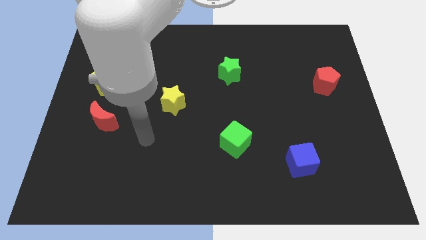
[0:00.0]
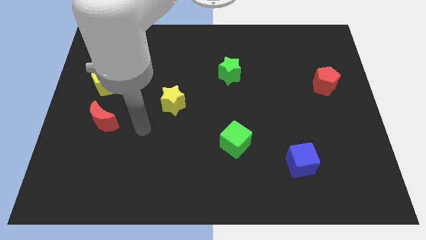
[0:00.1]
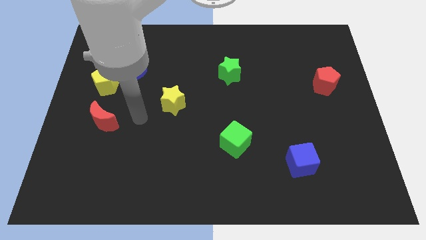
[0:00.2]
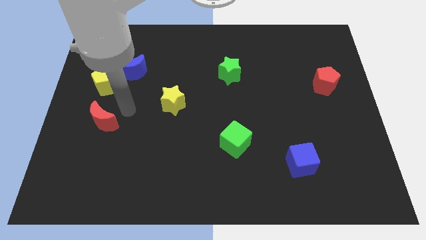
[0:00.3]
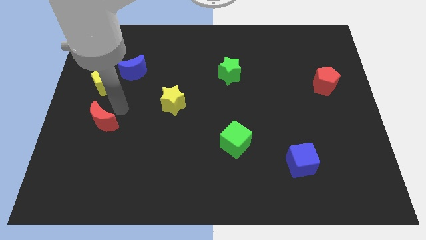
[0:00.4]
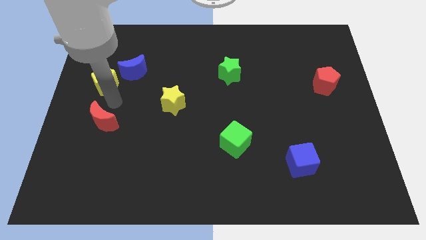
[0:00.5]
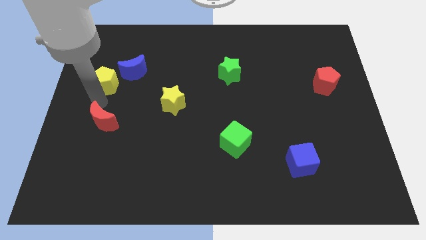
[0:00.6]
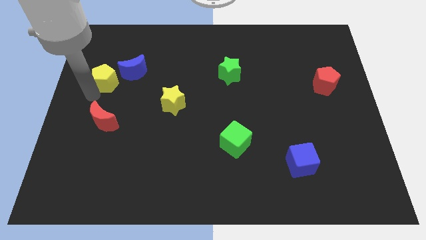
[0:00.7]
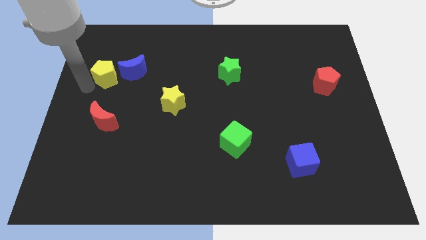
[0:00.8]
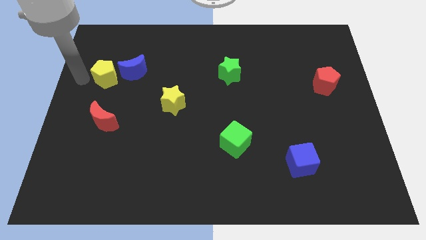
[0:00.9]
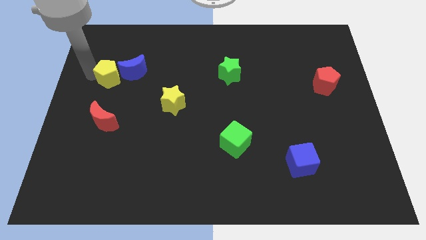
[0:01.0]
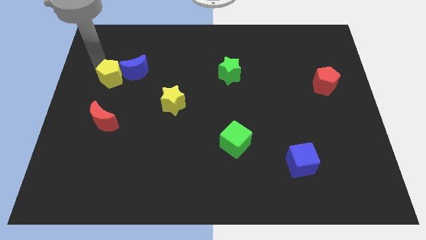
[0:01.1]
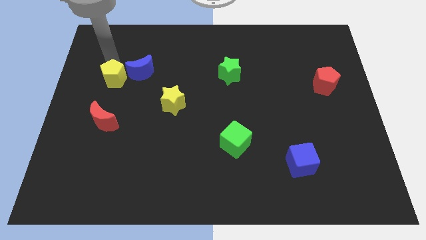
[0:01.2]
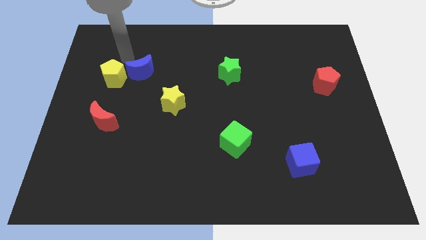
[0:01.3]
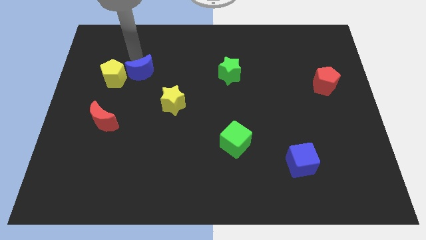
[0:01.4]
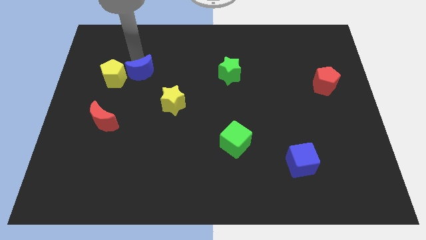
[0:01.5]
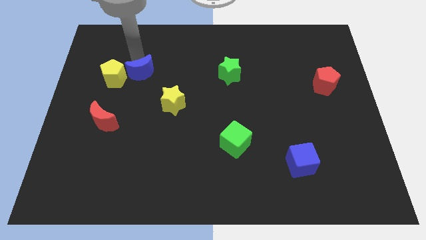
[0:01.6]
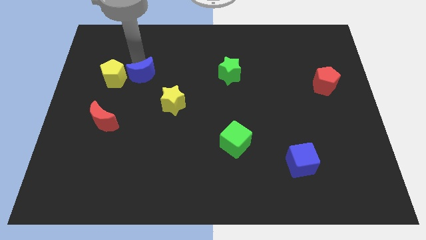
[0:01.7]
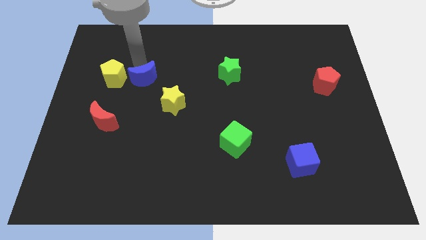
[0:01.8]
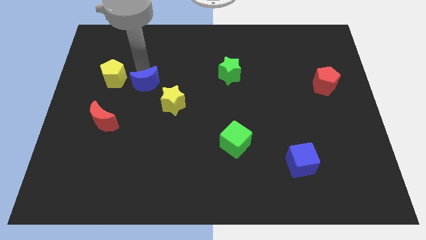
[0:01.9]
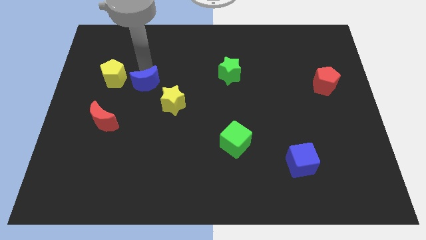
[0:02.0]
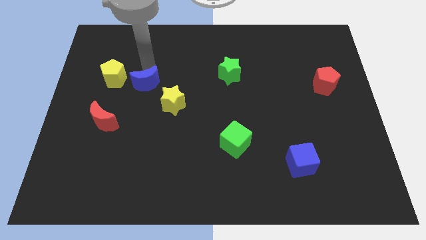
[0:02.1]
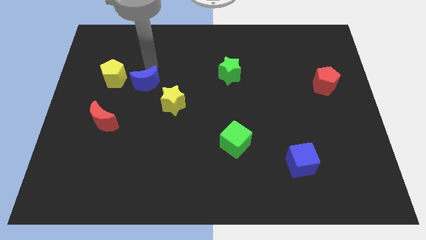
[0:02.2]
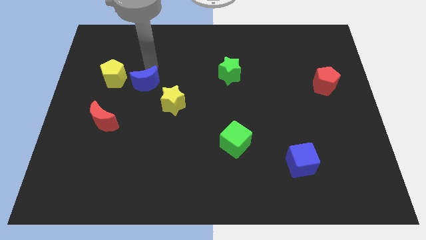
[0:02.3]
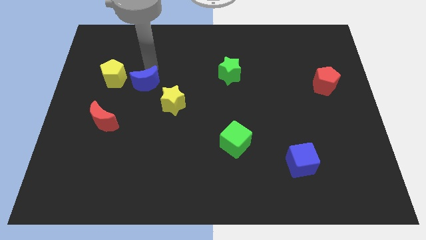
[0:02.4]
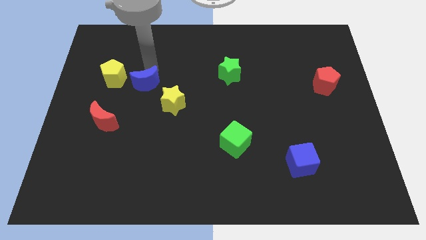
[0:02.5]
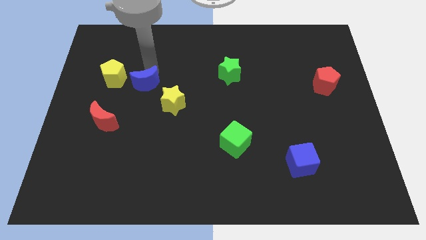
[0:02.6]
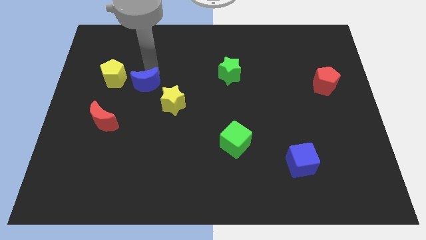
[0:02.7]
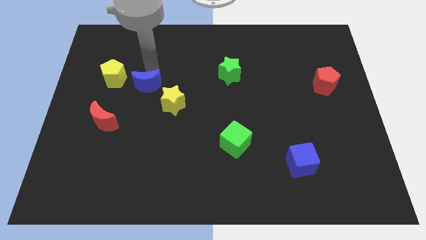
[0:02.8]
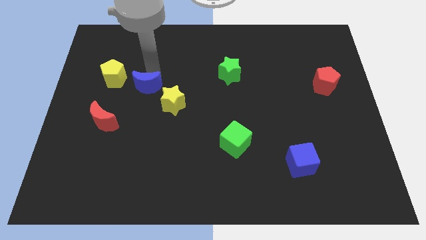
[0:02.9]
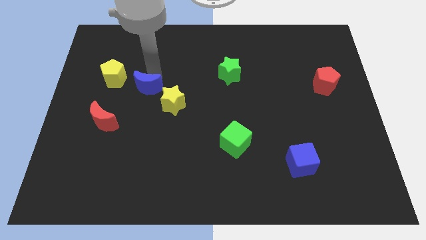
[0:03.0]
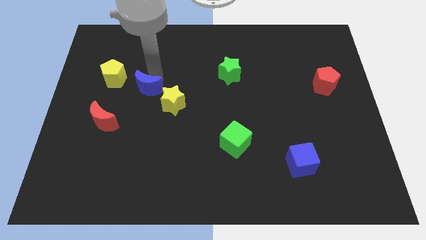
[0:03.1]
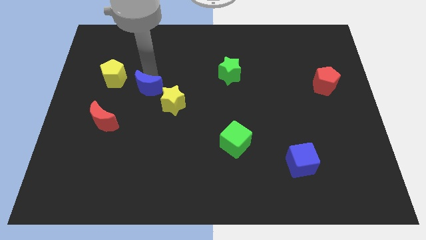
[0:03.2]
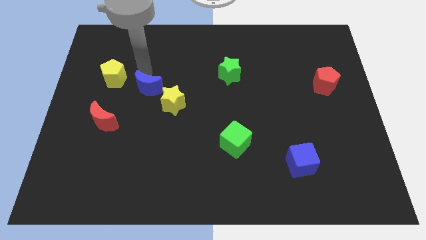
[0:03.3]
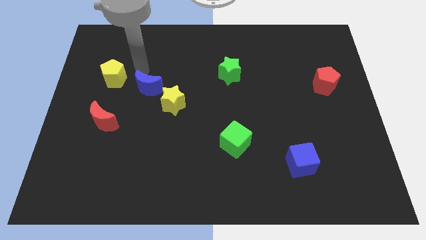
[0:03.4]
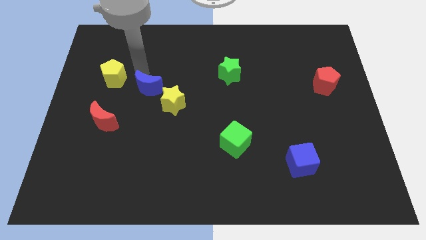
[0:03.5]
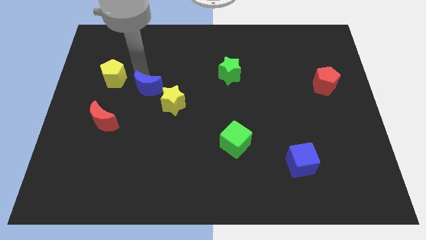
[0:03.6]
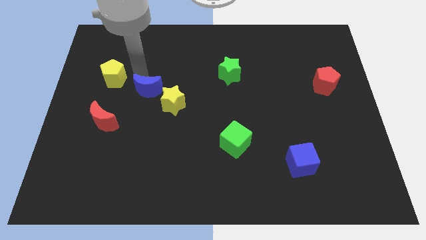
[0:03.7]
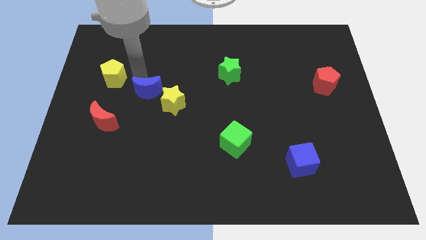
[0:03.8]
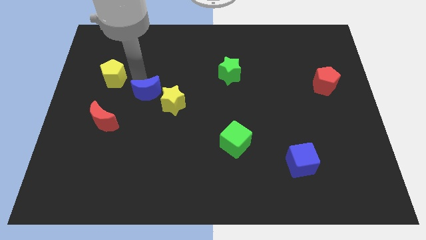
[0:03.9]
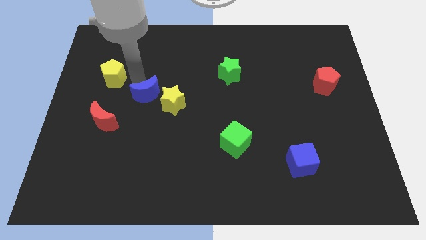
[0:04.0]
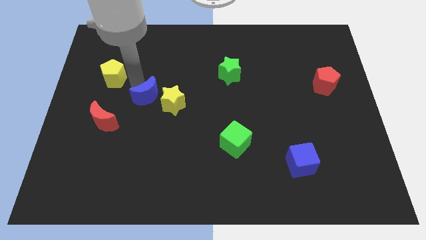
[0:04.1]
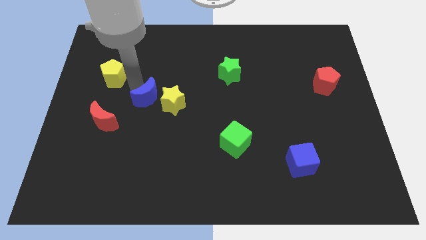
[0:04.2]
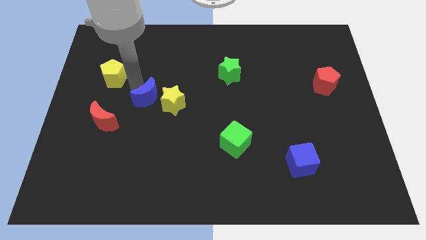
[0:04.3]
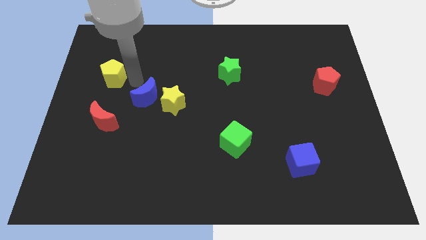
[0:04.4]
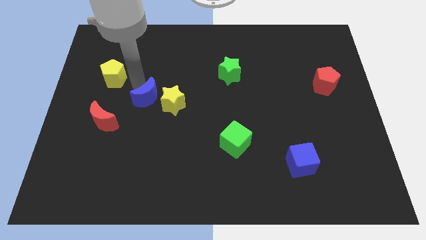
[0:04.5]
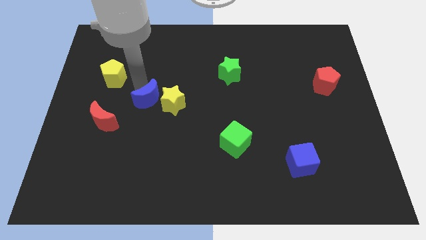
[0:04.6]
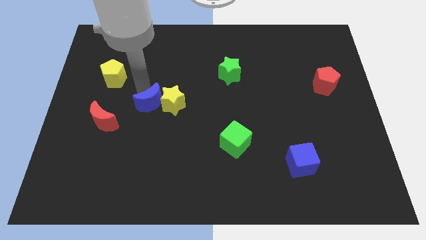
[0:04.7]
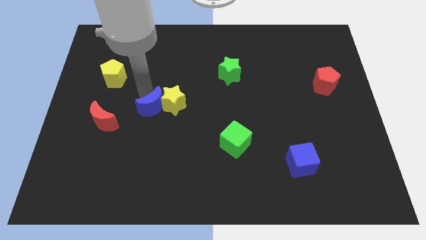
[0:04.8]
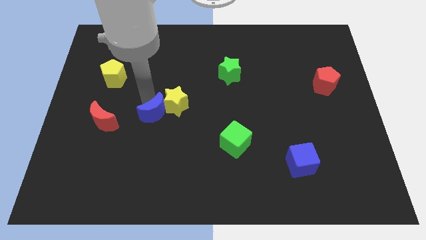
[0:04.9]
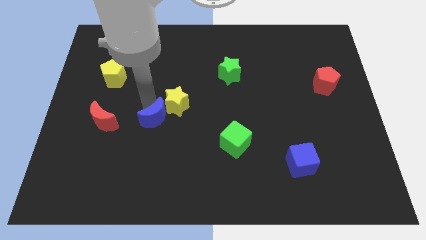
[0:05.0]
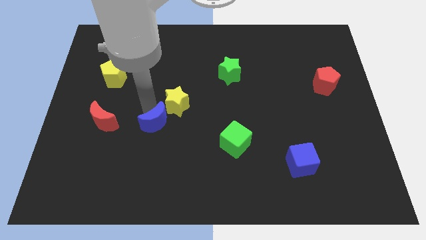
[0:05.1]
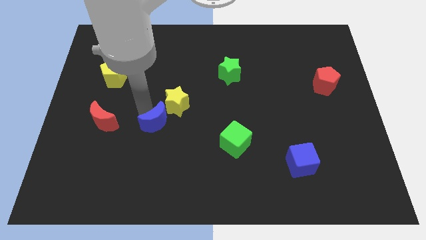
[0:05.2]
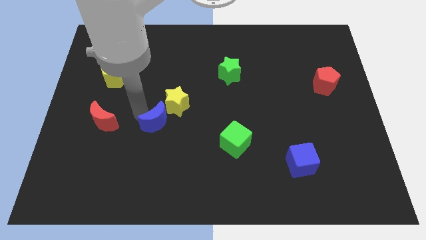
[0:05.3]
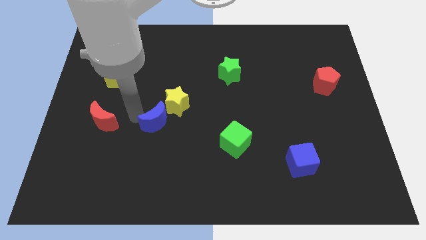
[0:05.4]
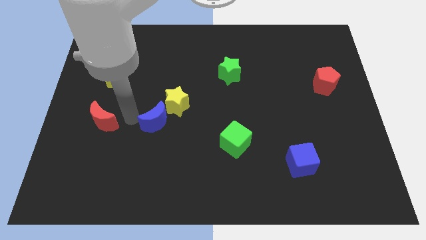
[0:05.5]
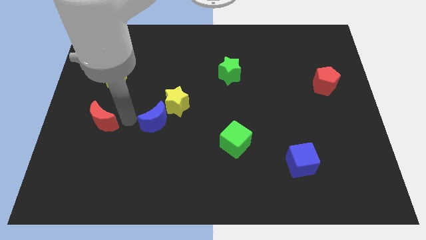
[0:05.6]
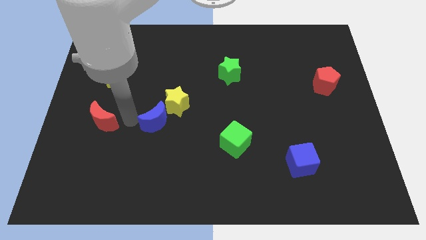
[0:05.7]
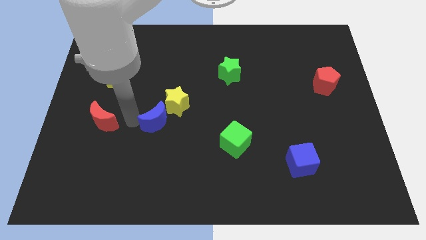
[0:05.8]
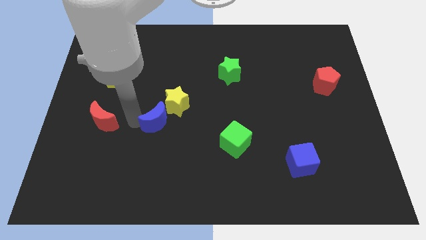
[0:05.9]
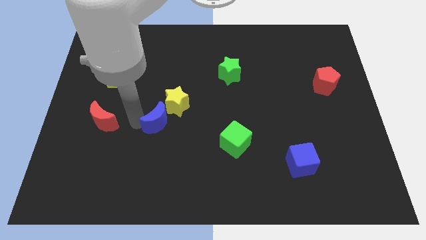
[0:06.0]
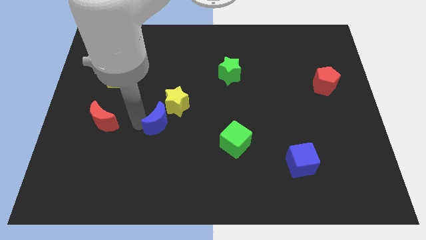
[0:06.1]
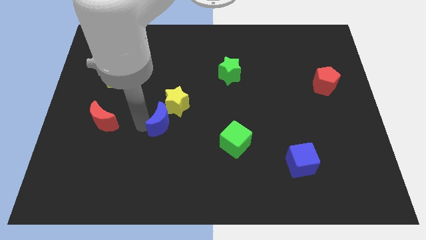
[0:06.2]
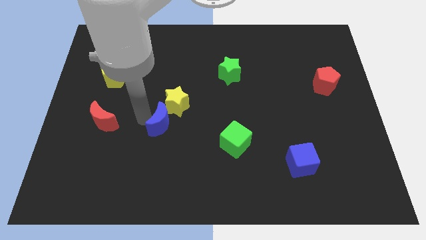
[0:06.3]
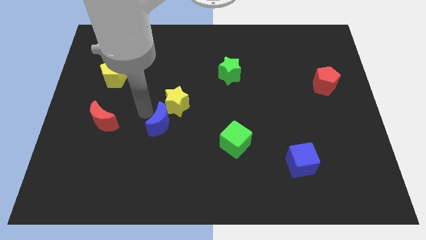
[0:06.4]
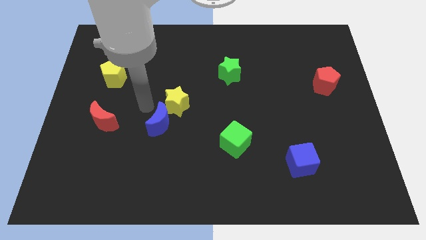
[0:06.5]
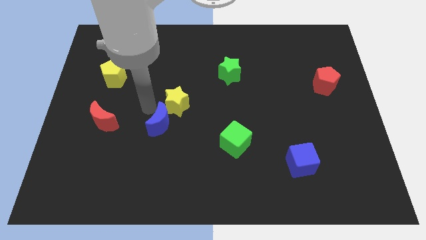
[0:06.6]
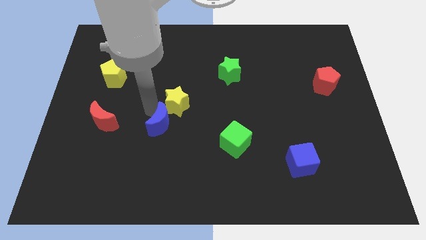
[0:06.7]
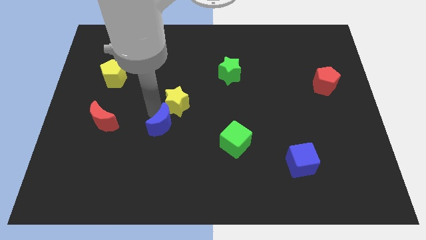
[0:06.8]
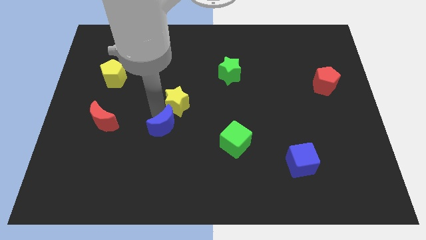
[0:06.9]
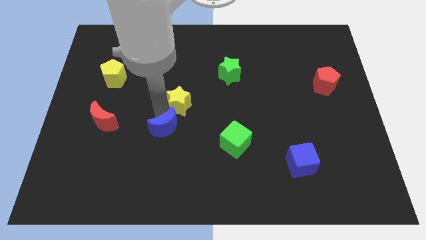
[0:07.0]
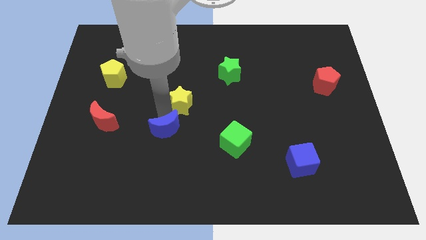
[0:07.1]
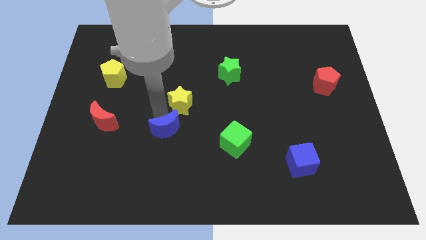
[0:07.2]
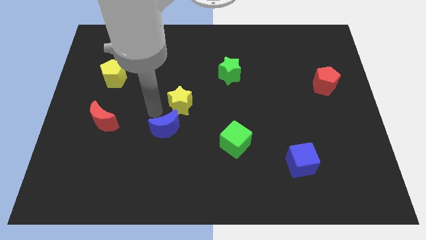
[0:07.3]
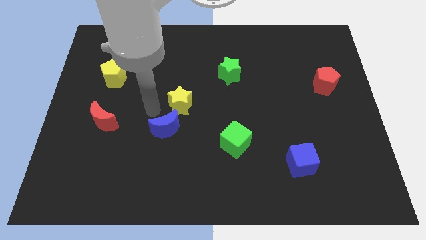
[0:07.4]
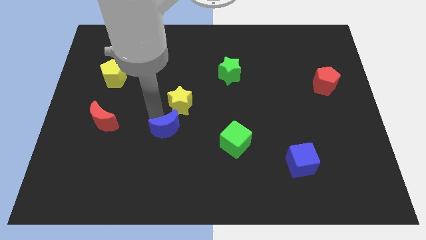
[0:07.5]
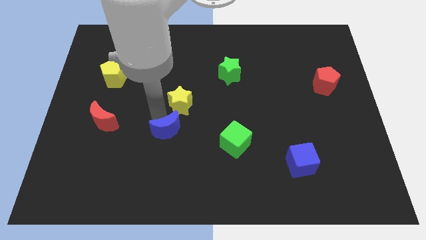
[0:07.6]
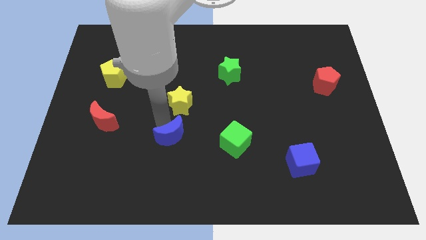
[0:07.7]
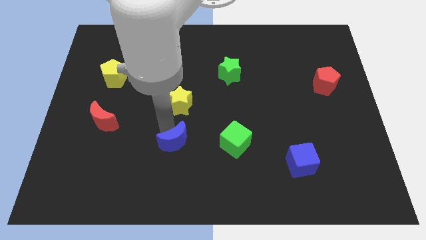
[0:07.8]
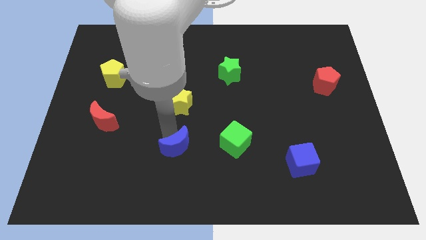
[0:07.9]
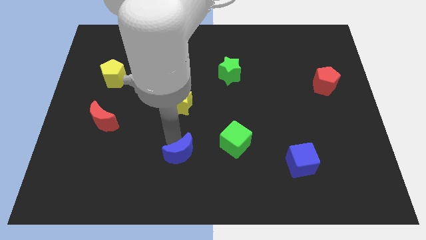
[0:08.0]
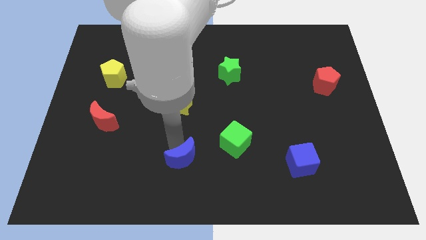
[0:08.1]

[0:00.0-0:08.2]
push the blue moon to the bottom side
